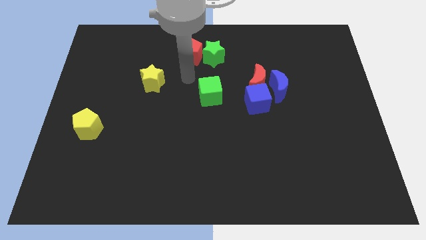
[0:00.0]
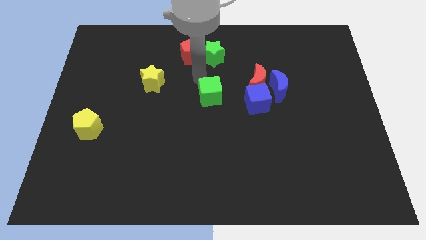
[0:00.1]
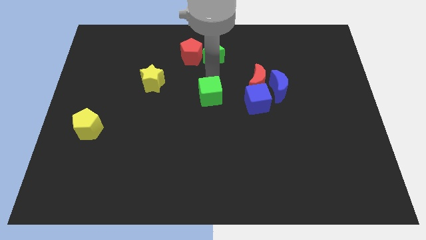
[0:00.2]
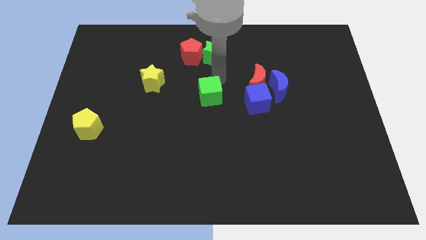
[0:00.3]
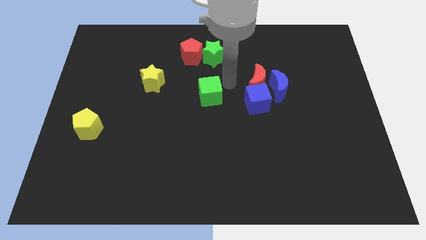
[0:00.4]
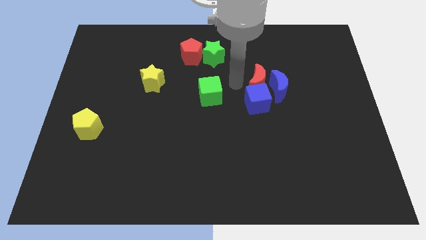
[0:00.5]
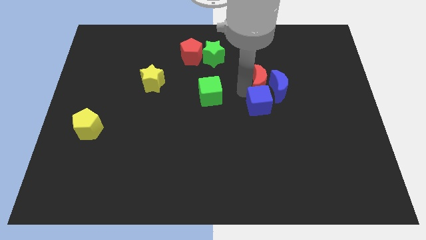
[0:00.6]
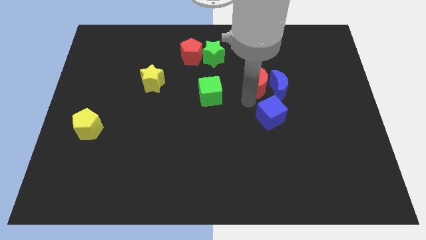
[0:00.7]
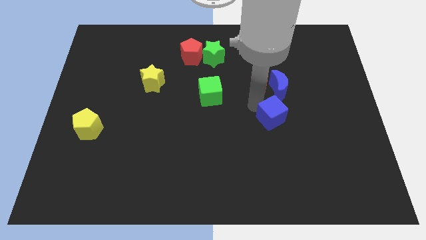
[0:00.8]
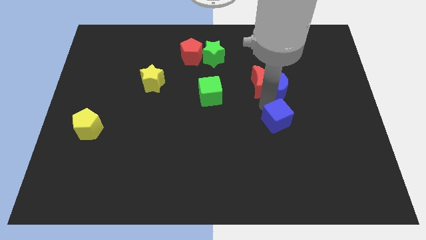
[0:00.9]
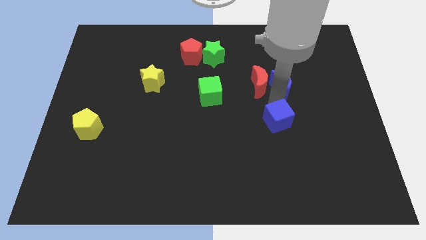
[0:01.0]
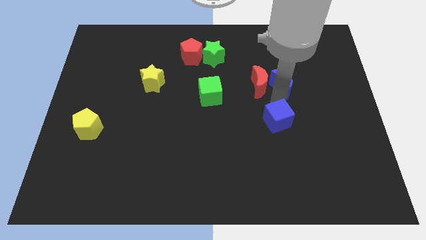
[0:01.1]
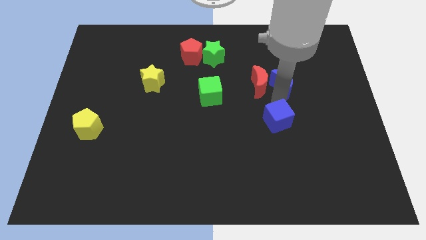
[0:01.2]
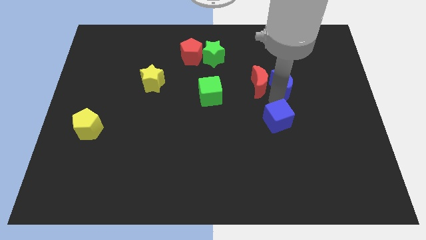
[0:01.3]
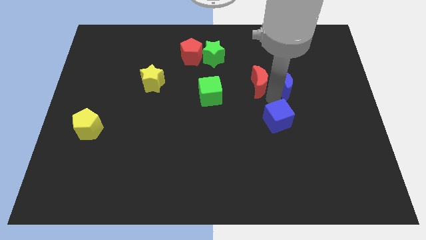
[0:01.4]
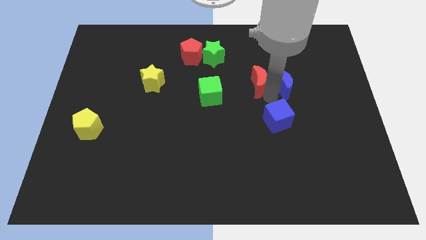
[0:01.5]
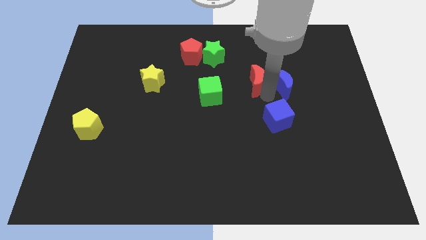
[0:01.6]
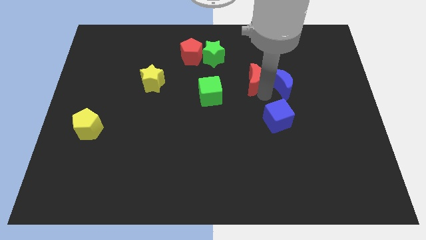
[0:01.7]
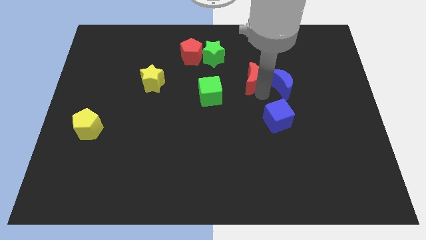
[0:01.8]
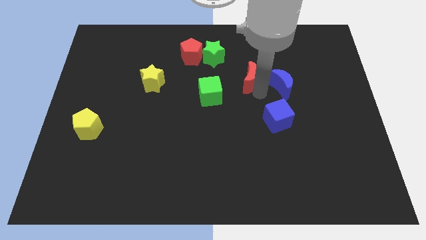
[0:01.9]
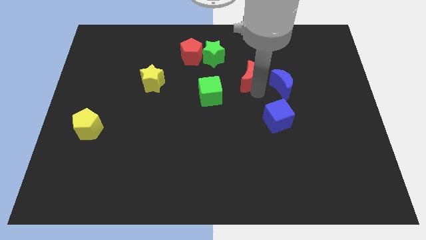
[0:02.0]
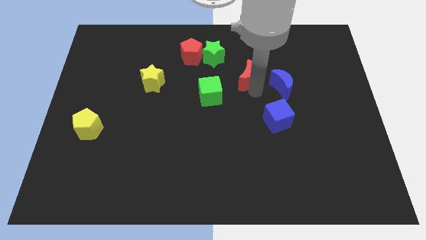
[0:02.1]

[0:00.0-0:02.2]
move the red moon away from the blue moon and blue cube

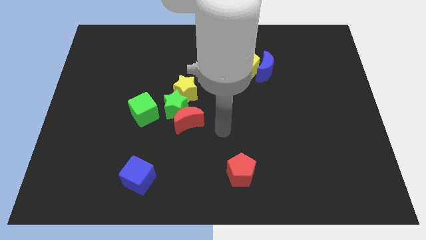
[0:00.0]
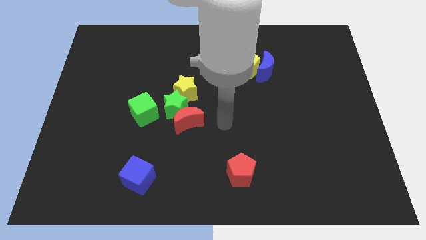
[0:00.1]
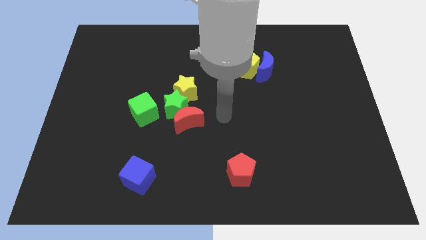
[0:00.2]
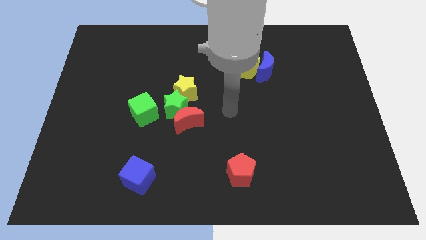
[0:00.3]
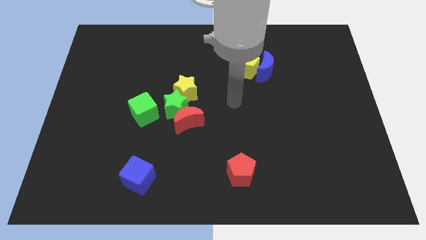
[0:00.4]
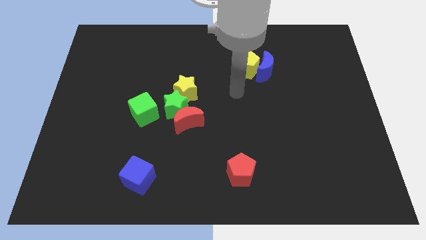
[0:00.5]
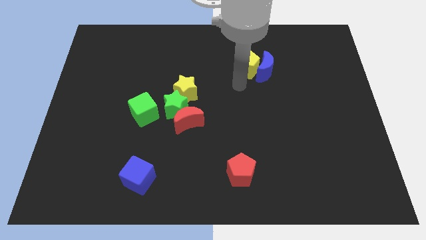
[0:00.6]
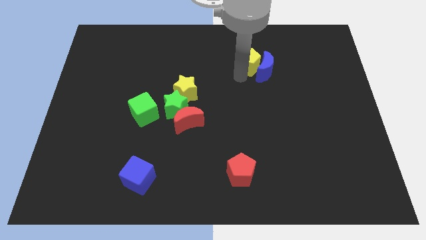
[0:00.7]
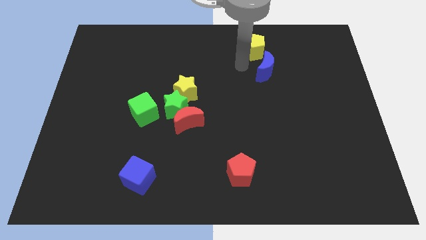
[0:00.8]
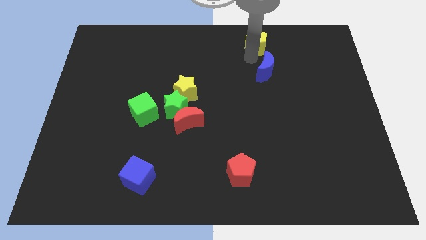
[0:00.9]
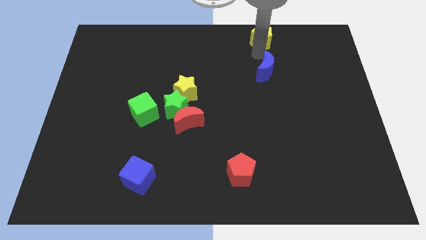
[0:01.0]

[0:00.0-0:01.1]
move the blue moon away from the yellow pentagon

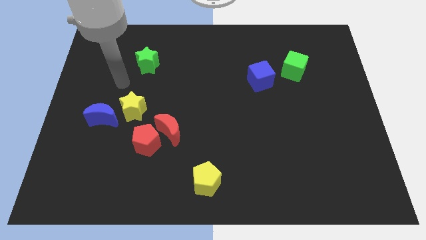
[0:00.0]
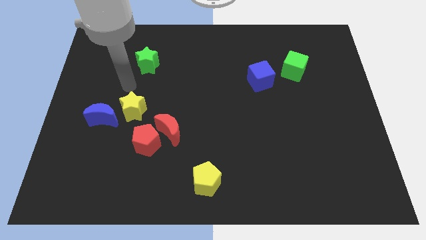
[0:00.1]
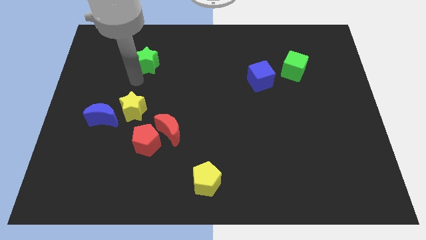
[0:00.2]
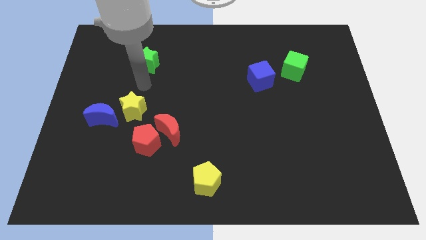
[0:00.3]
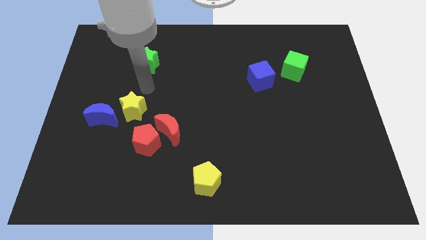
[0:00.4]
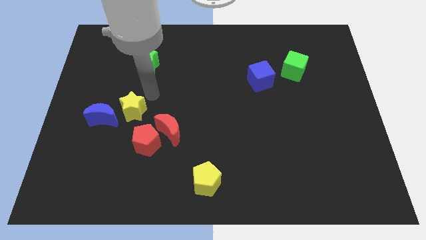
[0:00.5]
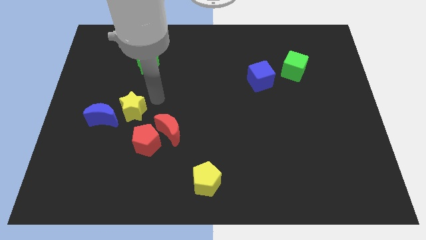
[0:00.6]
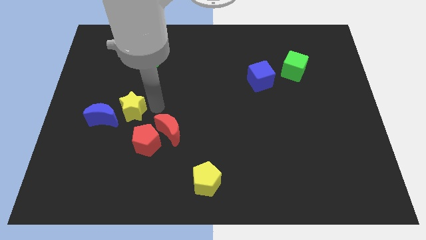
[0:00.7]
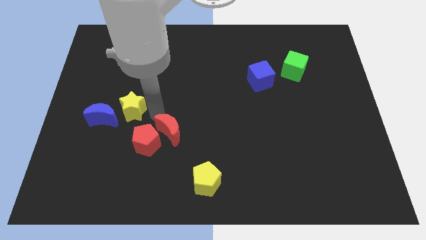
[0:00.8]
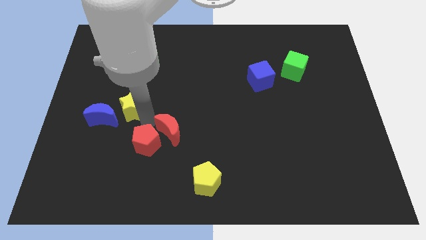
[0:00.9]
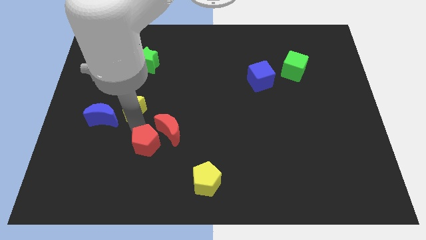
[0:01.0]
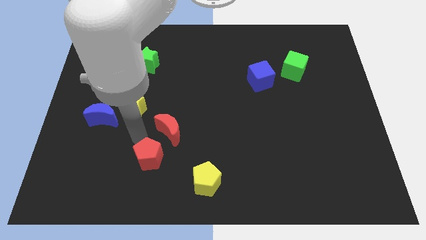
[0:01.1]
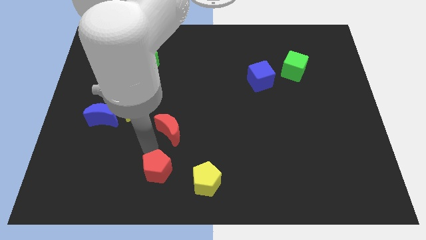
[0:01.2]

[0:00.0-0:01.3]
separate the red moon from the red pentagon

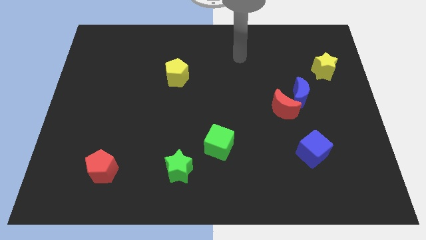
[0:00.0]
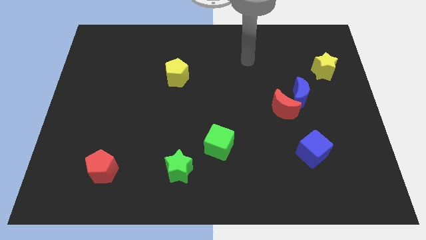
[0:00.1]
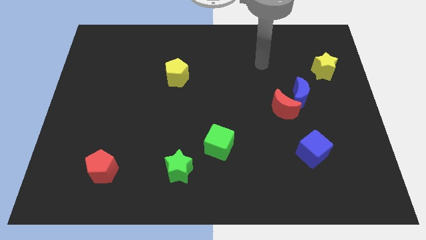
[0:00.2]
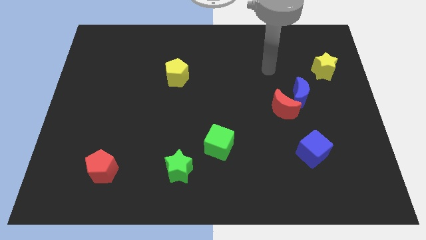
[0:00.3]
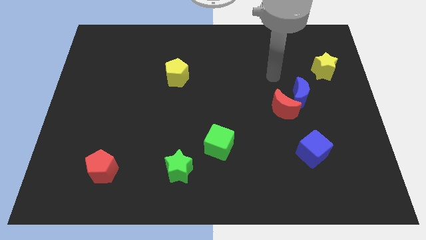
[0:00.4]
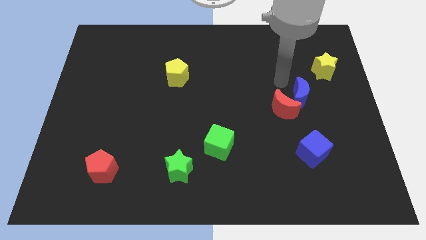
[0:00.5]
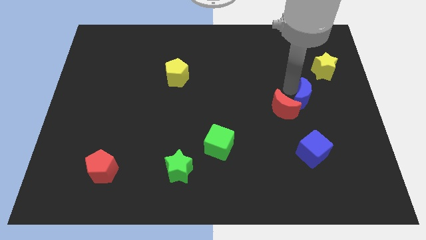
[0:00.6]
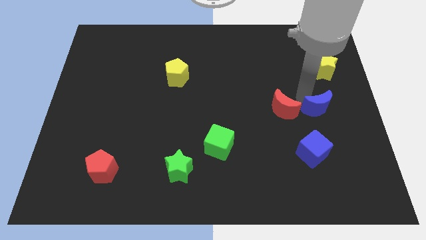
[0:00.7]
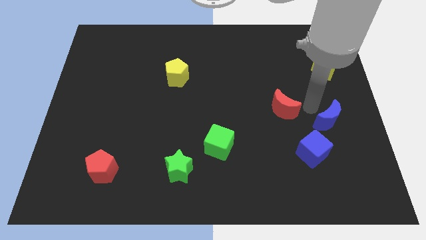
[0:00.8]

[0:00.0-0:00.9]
separate the red moon from the blue moon

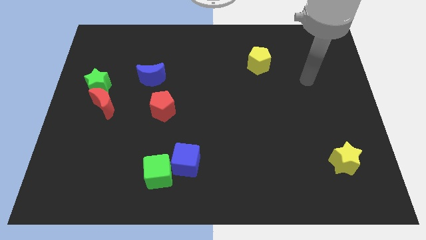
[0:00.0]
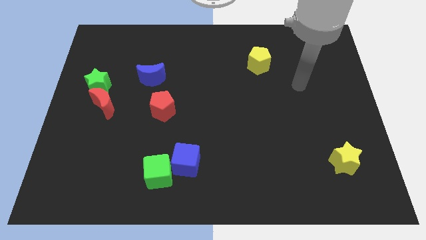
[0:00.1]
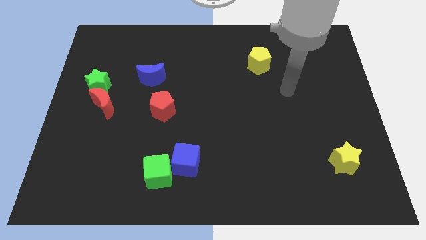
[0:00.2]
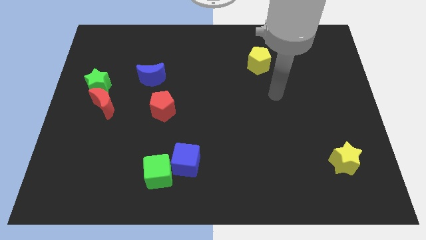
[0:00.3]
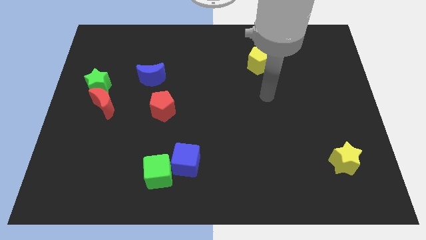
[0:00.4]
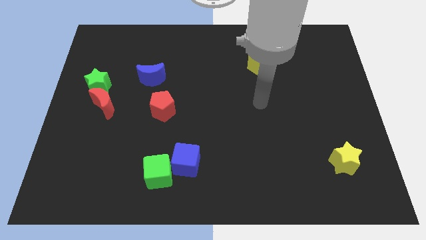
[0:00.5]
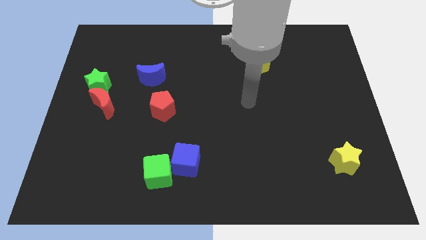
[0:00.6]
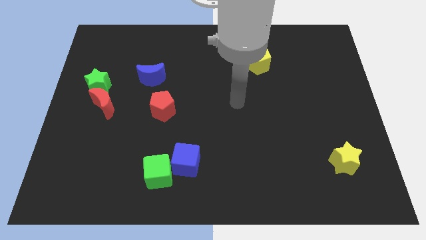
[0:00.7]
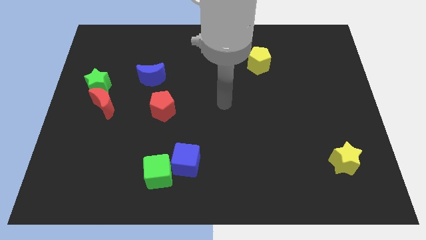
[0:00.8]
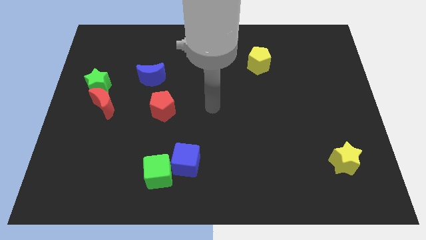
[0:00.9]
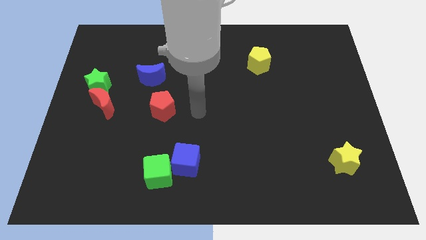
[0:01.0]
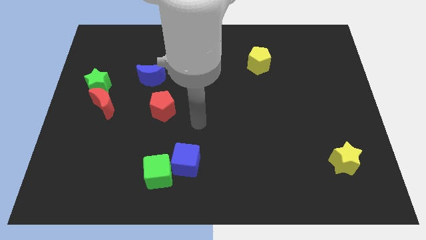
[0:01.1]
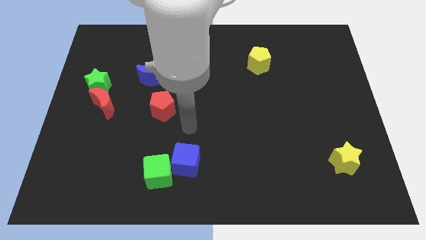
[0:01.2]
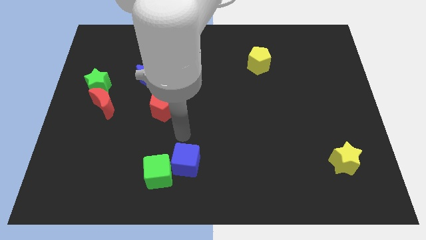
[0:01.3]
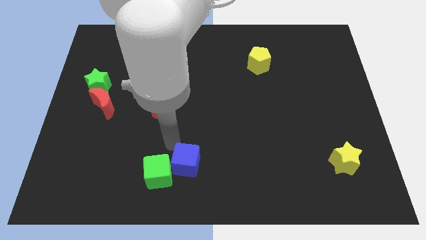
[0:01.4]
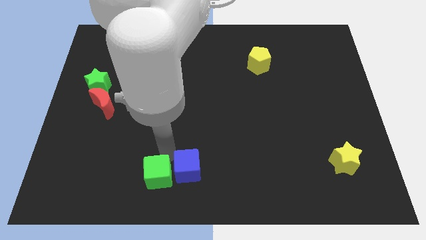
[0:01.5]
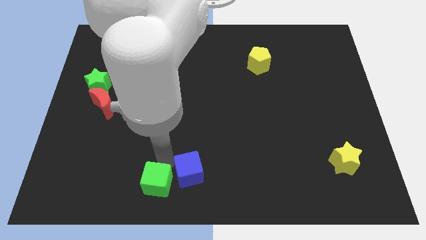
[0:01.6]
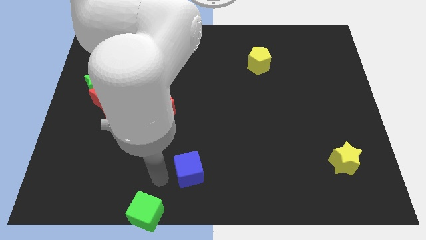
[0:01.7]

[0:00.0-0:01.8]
pull the blue cube apart from the green cube

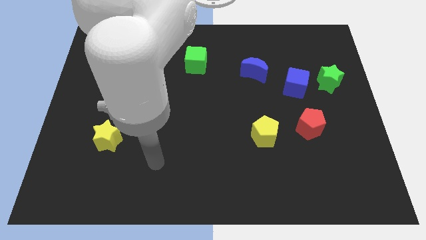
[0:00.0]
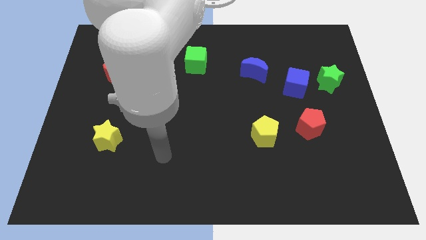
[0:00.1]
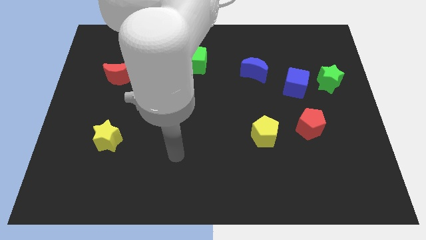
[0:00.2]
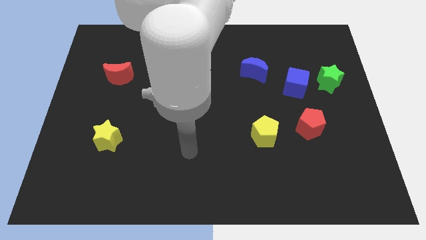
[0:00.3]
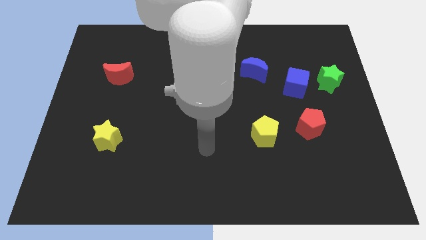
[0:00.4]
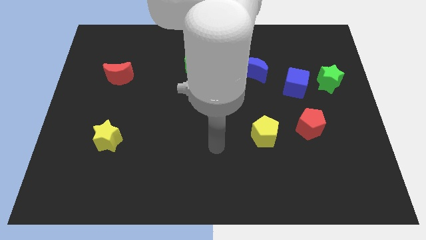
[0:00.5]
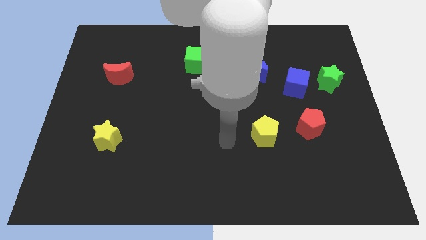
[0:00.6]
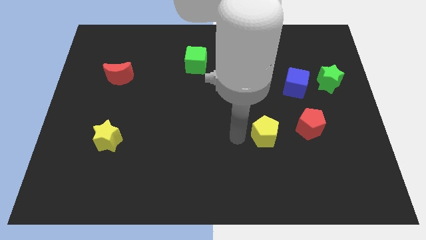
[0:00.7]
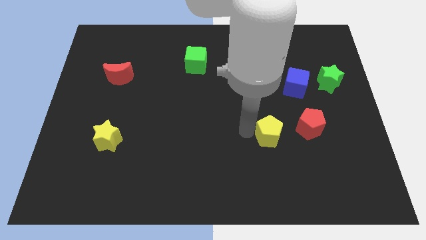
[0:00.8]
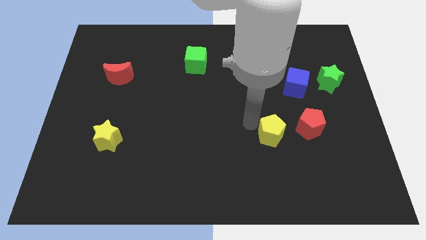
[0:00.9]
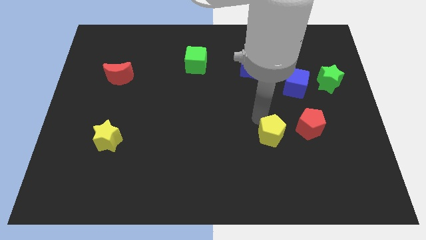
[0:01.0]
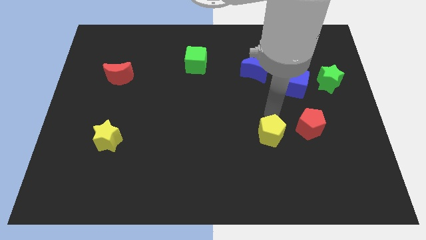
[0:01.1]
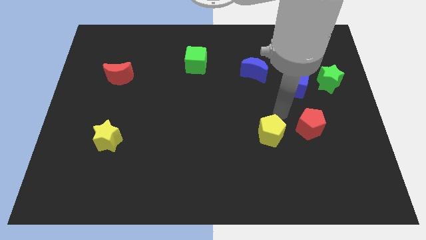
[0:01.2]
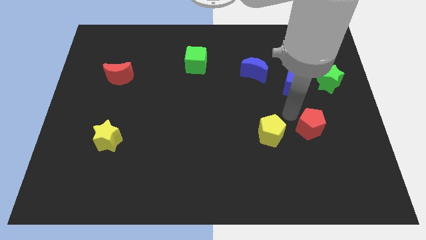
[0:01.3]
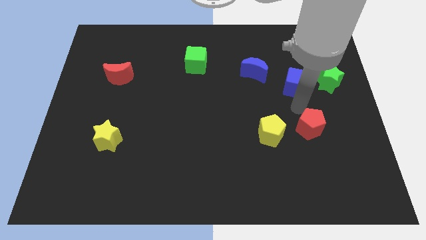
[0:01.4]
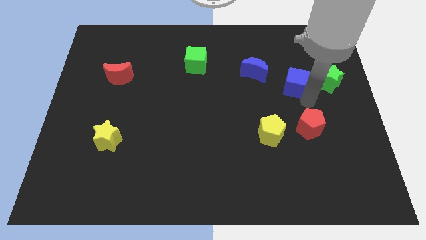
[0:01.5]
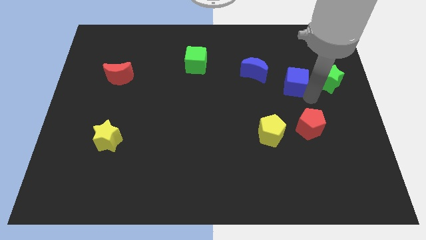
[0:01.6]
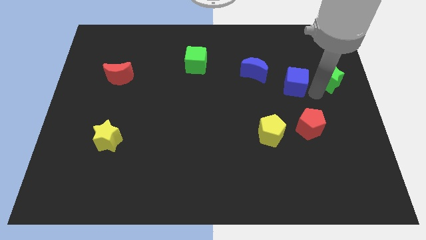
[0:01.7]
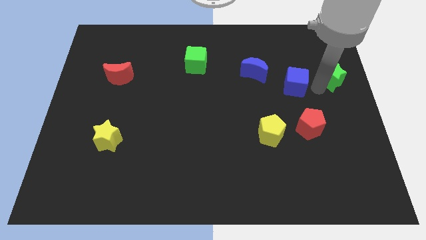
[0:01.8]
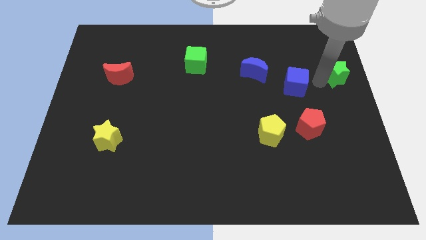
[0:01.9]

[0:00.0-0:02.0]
pull the blue cube apart from the green star

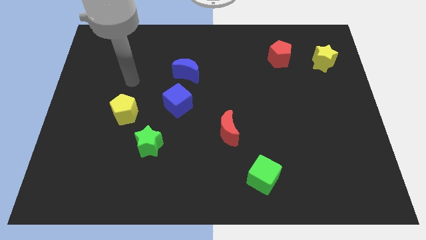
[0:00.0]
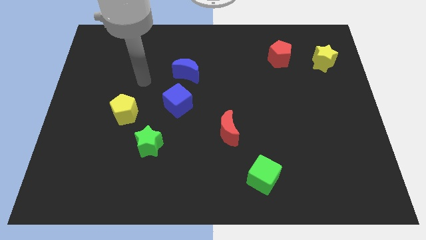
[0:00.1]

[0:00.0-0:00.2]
separate the blue moon from the blue cube
